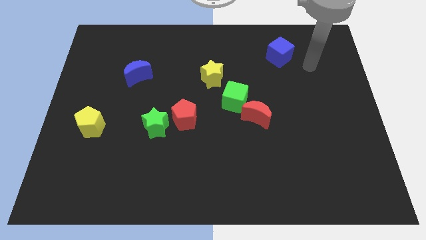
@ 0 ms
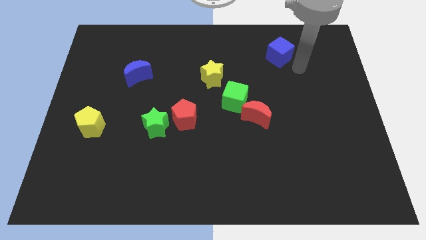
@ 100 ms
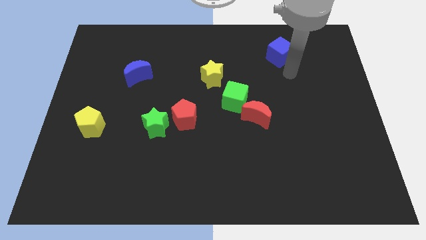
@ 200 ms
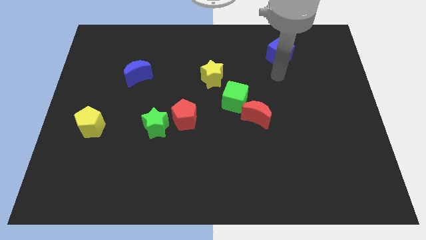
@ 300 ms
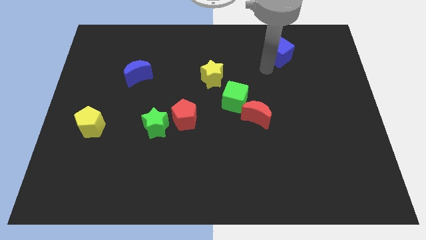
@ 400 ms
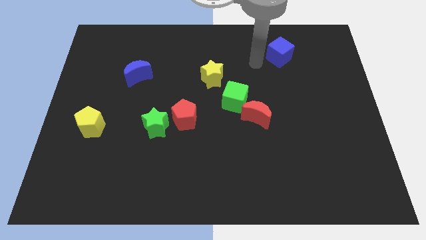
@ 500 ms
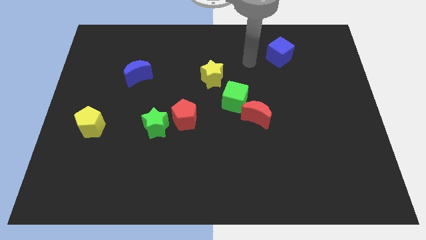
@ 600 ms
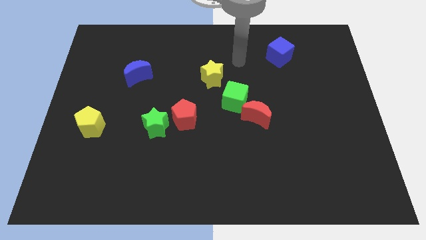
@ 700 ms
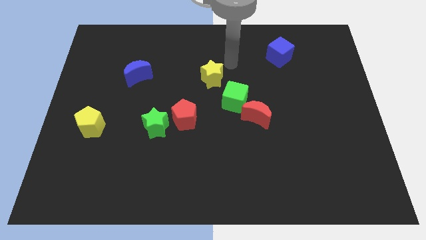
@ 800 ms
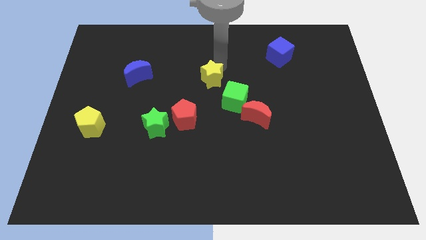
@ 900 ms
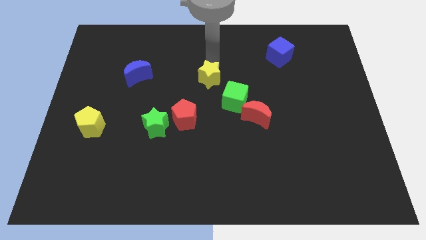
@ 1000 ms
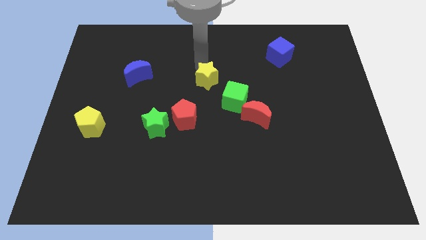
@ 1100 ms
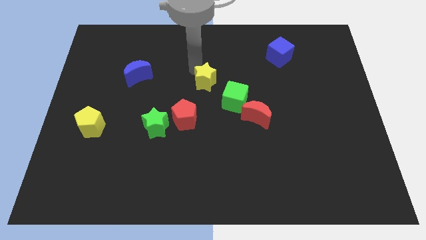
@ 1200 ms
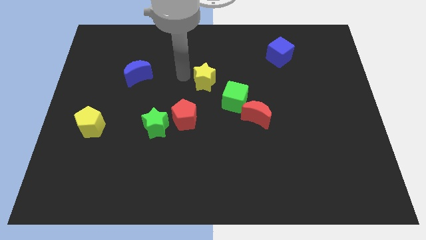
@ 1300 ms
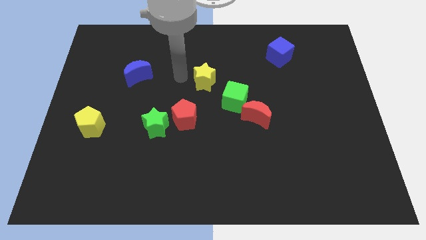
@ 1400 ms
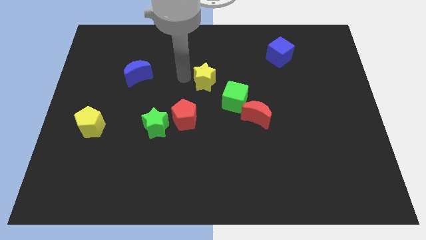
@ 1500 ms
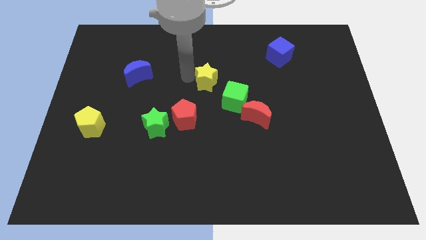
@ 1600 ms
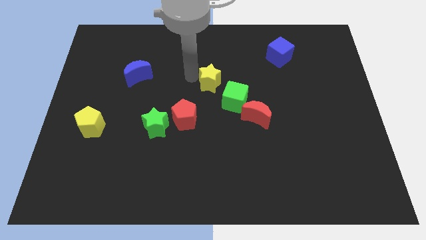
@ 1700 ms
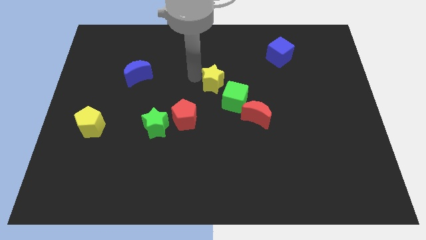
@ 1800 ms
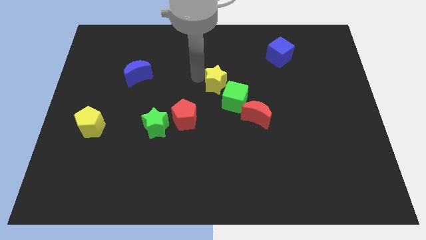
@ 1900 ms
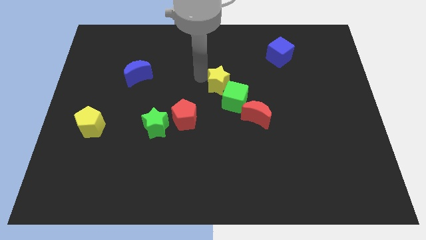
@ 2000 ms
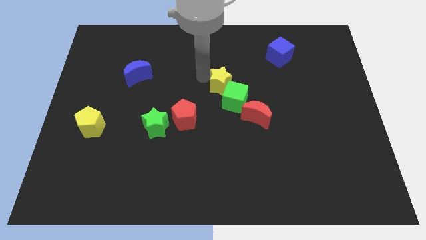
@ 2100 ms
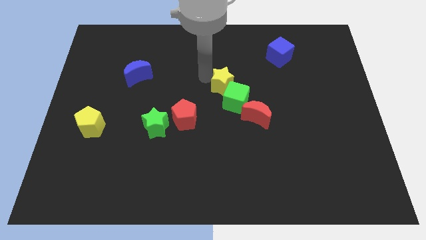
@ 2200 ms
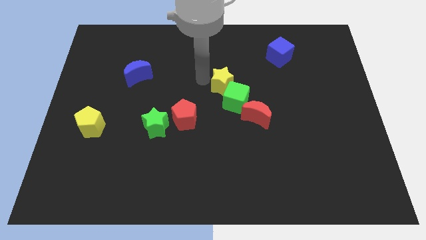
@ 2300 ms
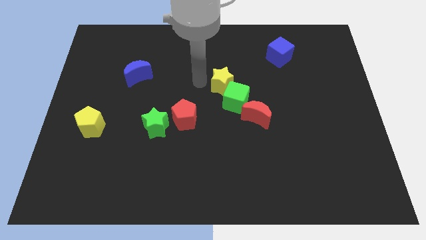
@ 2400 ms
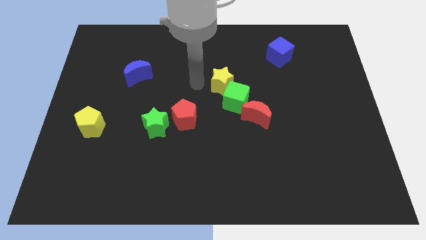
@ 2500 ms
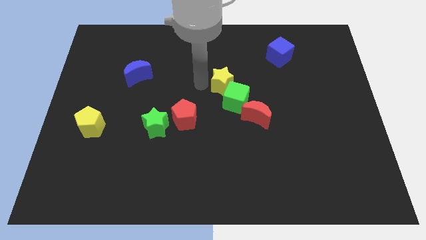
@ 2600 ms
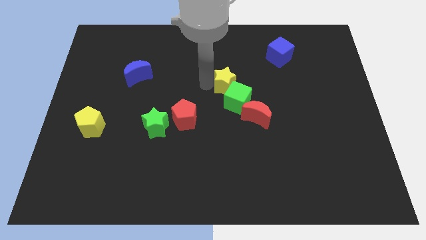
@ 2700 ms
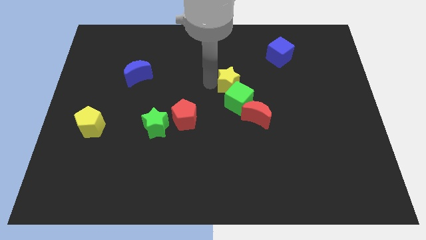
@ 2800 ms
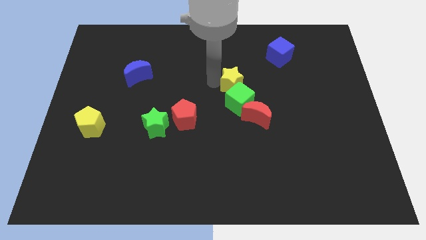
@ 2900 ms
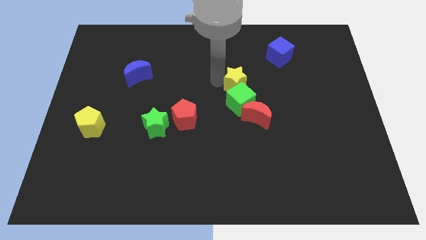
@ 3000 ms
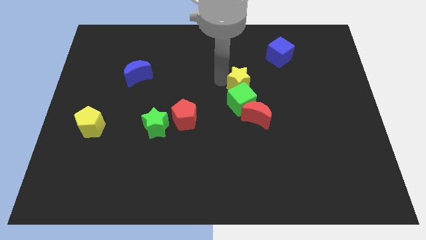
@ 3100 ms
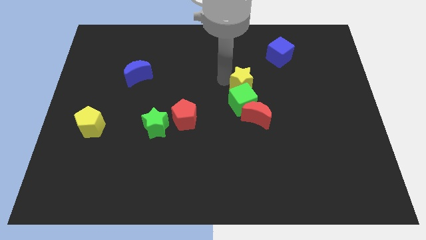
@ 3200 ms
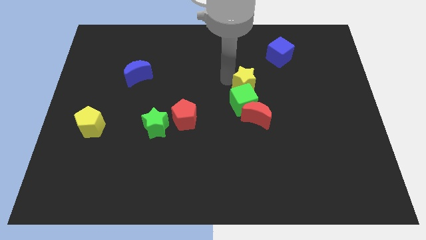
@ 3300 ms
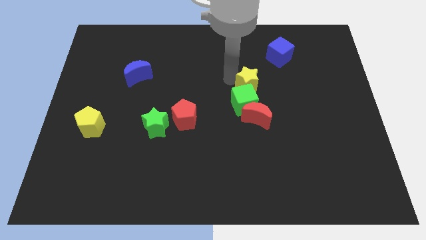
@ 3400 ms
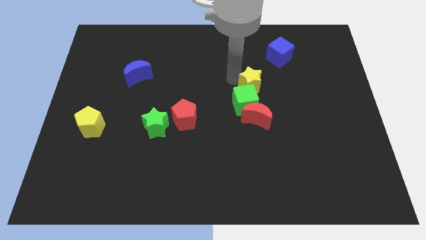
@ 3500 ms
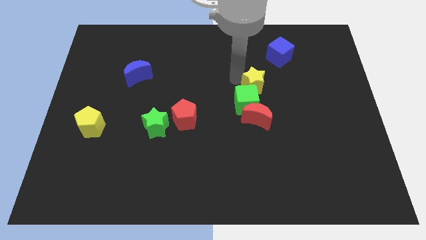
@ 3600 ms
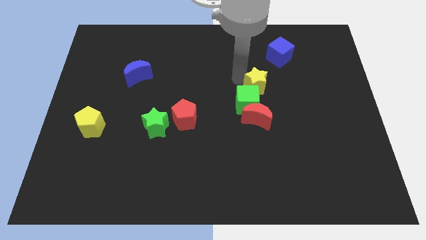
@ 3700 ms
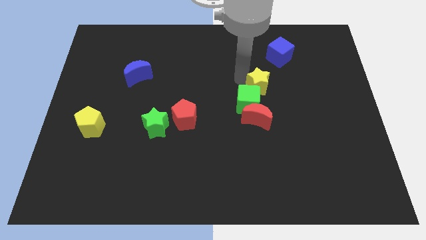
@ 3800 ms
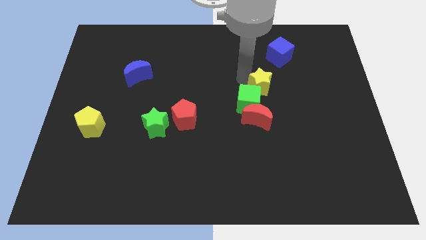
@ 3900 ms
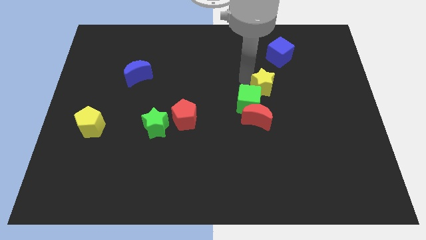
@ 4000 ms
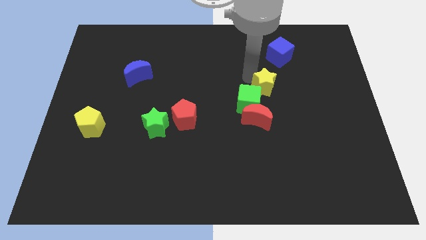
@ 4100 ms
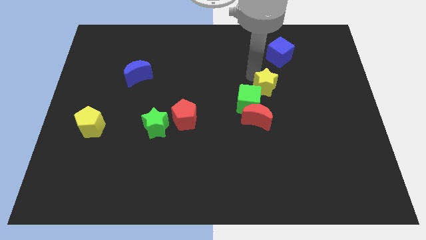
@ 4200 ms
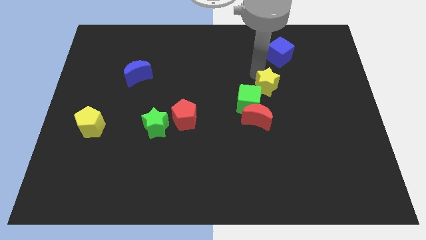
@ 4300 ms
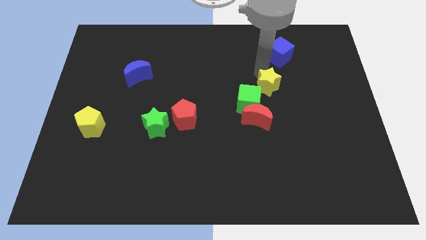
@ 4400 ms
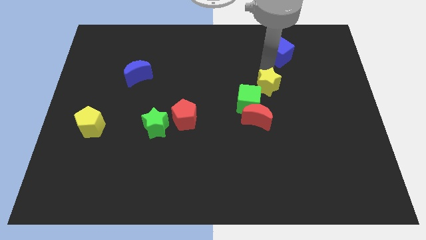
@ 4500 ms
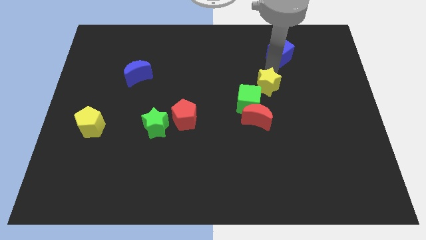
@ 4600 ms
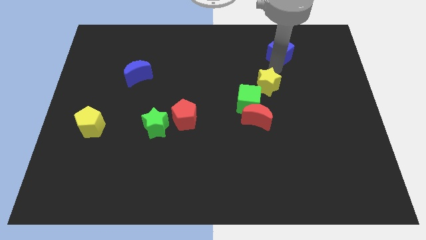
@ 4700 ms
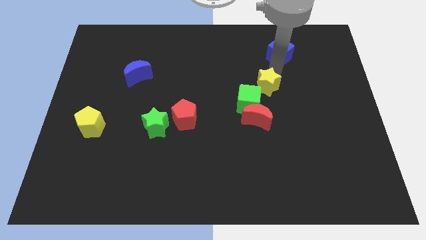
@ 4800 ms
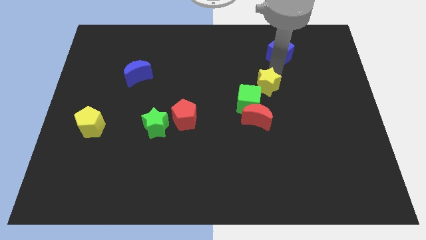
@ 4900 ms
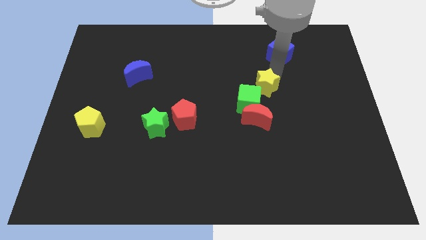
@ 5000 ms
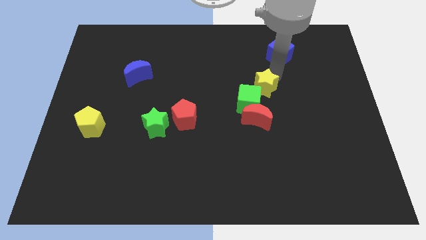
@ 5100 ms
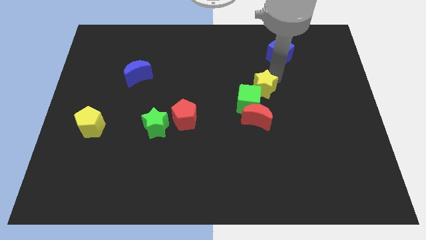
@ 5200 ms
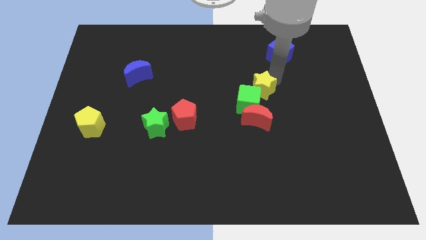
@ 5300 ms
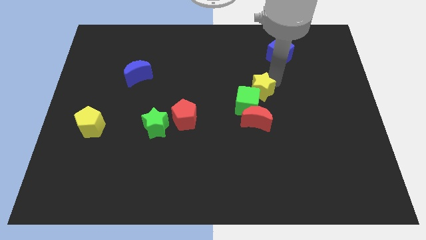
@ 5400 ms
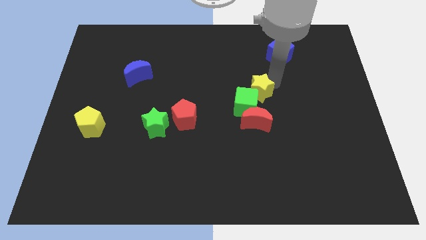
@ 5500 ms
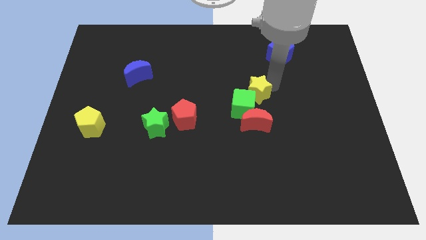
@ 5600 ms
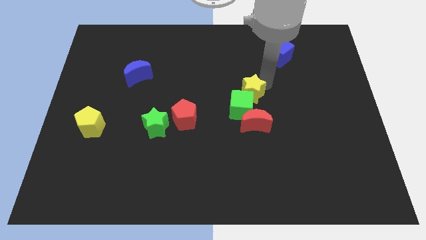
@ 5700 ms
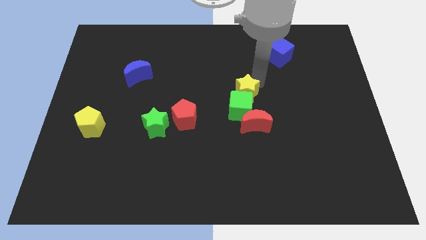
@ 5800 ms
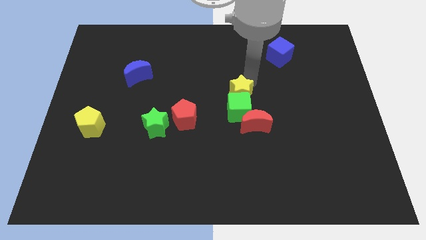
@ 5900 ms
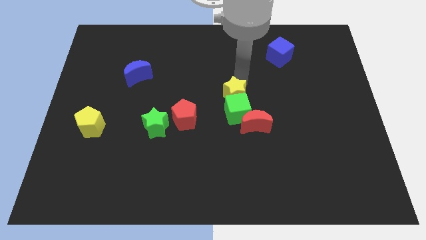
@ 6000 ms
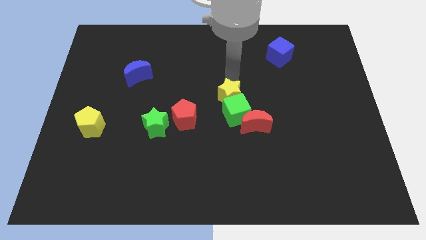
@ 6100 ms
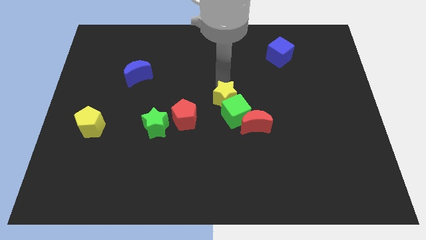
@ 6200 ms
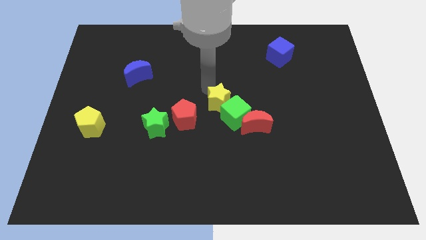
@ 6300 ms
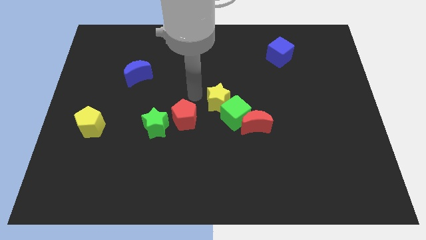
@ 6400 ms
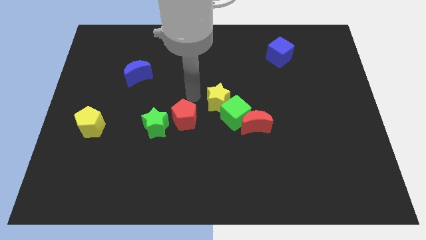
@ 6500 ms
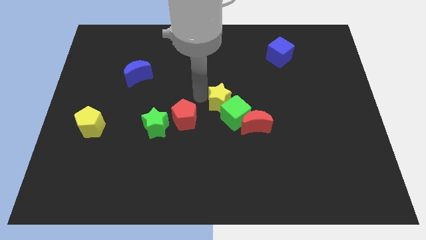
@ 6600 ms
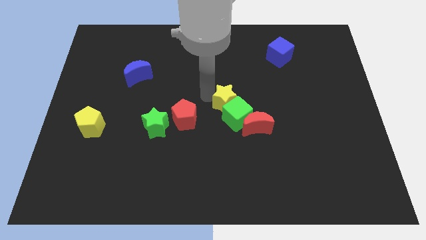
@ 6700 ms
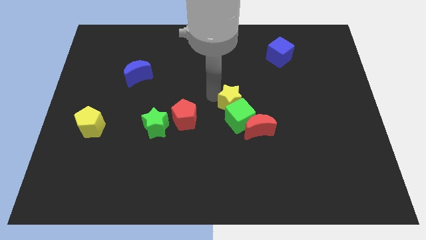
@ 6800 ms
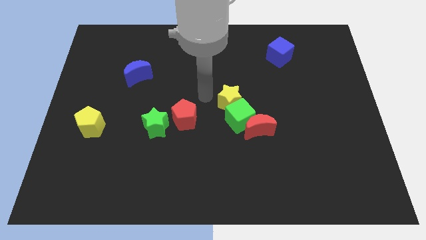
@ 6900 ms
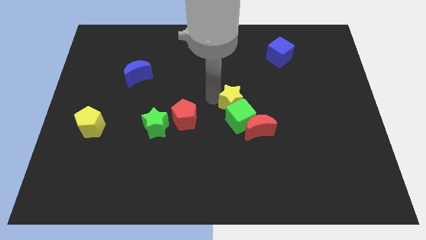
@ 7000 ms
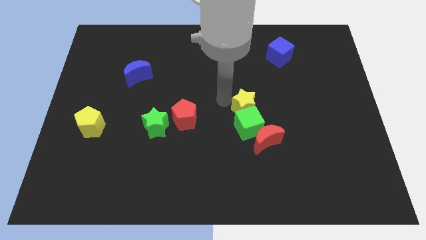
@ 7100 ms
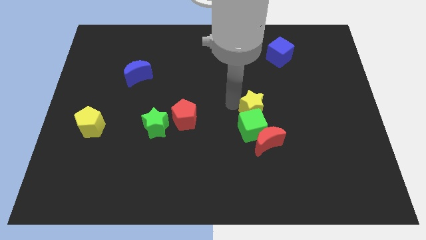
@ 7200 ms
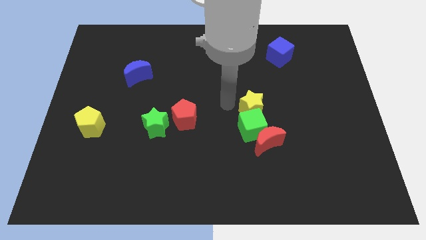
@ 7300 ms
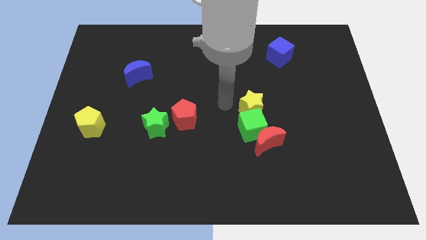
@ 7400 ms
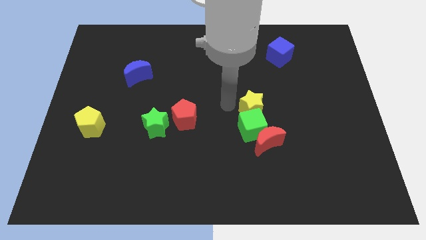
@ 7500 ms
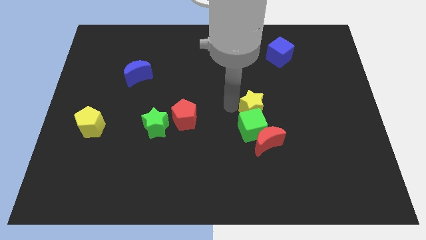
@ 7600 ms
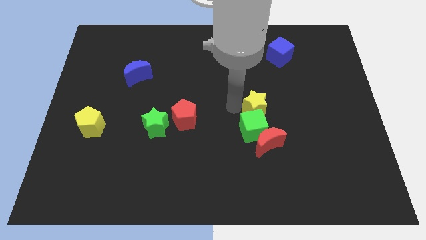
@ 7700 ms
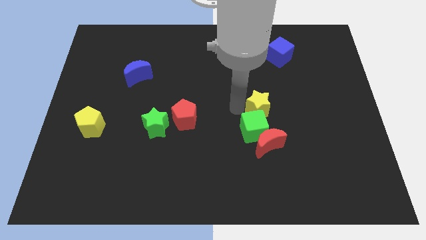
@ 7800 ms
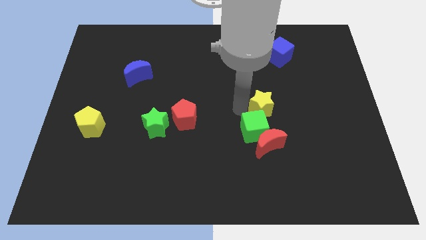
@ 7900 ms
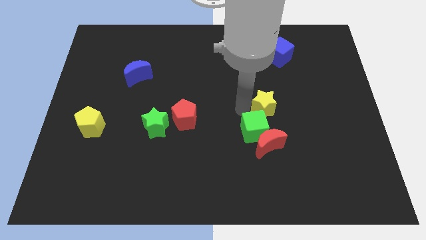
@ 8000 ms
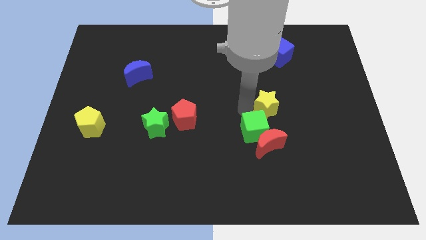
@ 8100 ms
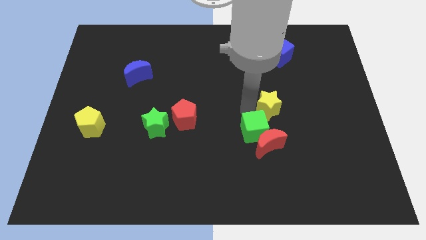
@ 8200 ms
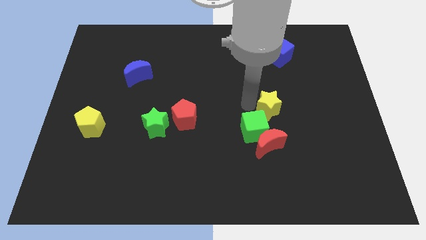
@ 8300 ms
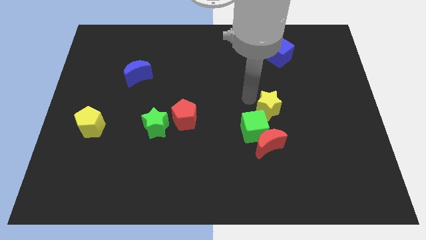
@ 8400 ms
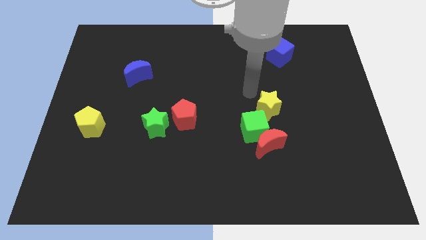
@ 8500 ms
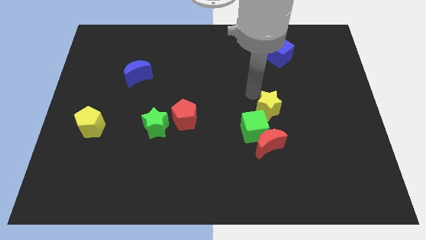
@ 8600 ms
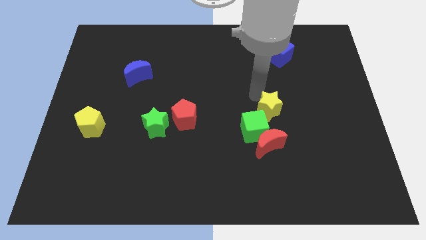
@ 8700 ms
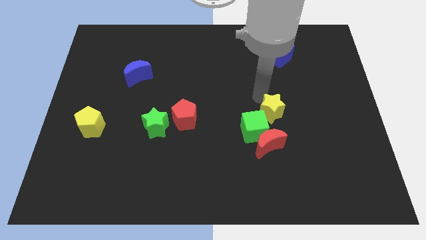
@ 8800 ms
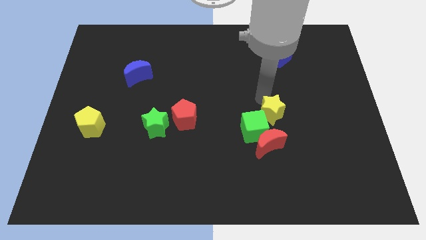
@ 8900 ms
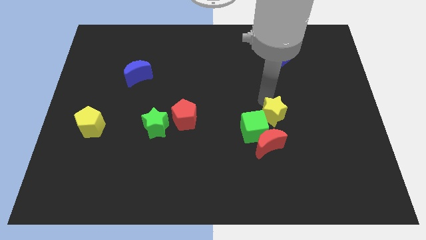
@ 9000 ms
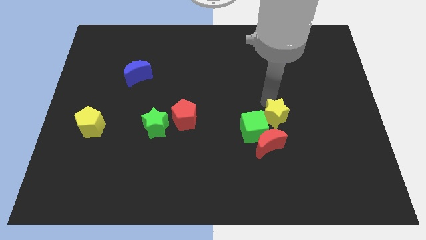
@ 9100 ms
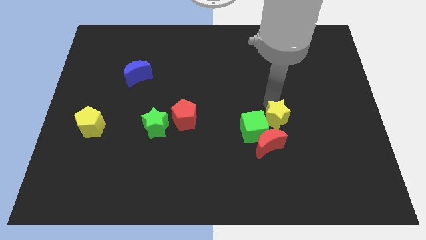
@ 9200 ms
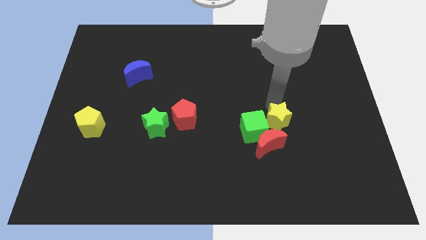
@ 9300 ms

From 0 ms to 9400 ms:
push the yellow star down and right
